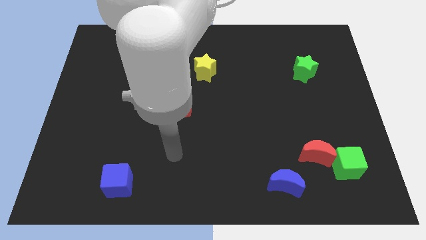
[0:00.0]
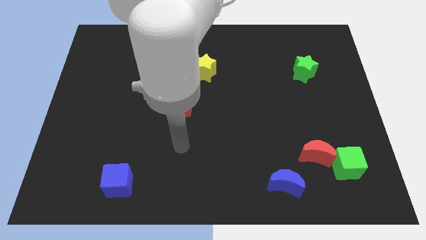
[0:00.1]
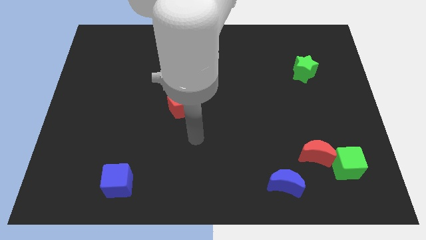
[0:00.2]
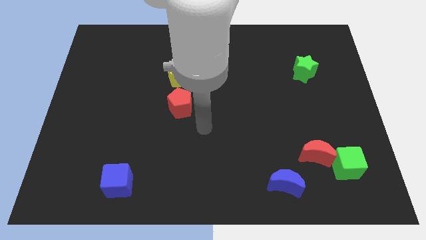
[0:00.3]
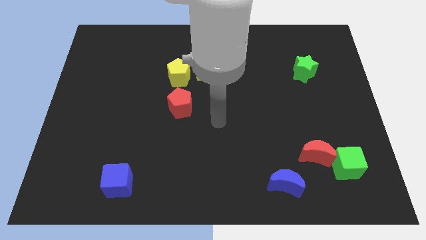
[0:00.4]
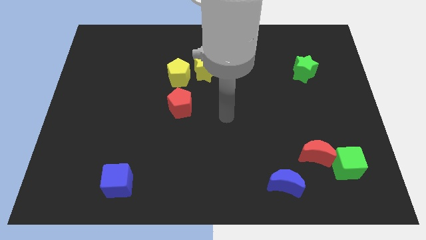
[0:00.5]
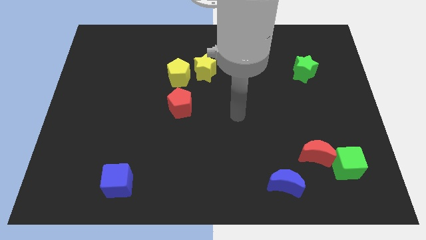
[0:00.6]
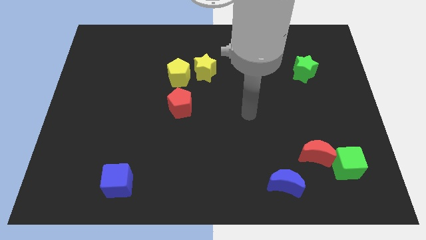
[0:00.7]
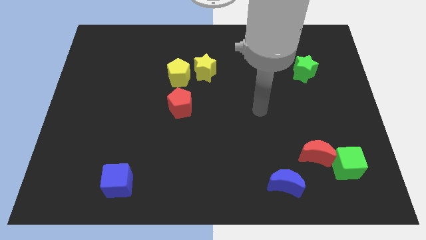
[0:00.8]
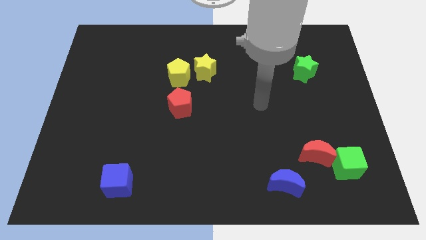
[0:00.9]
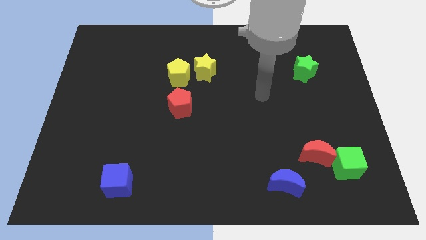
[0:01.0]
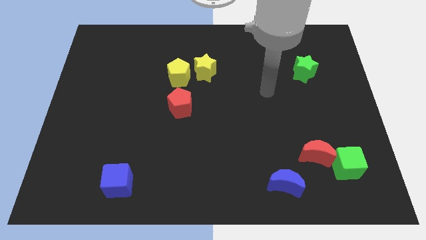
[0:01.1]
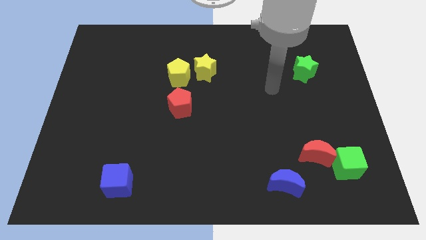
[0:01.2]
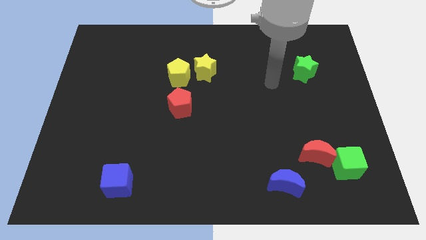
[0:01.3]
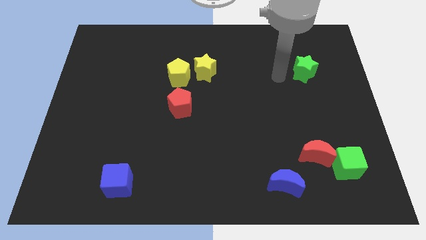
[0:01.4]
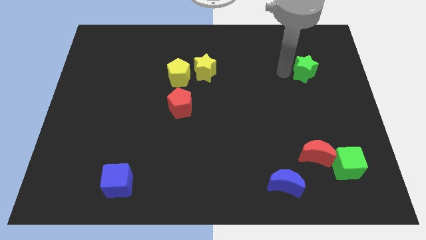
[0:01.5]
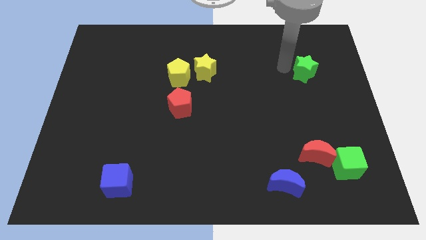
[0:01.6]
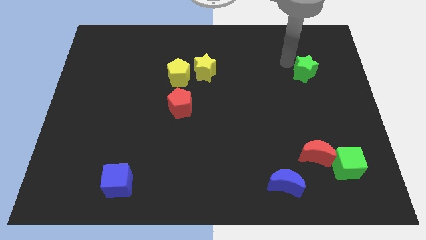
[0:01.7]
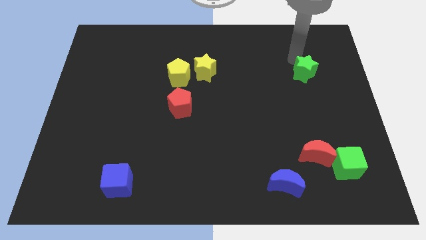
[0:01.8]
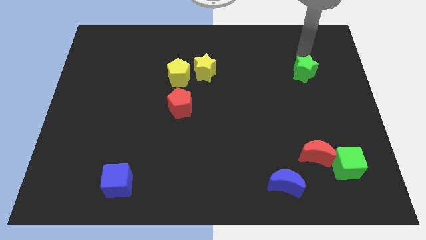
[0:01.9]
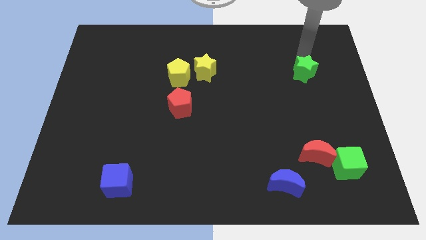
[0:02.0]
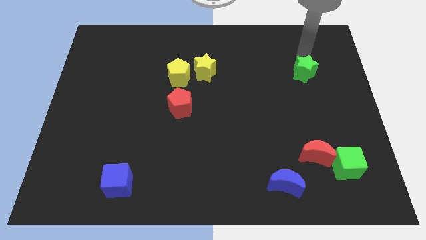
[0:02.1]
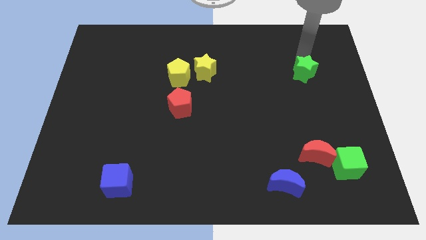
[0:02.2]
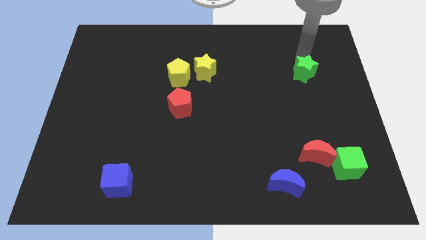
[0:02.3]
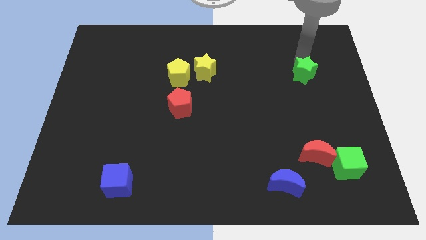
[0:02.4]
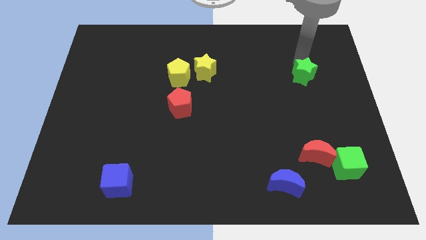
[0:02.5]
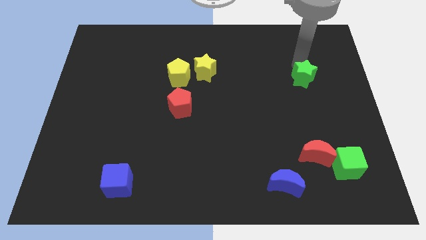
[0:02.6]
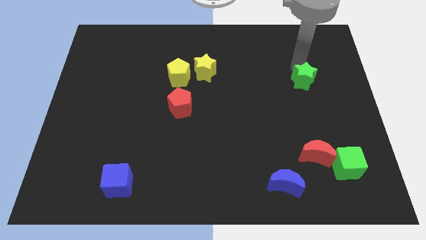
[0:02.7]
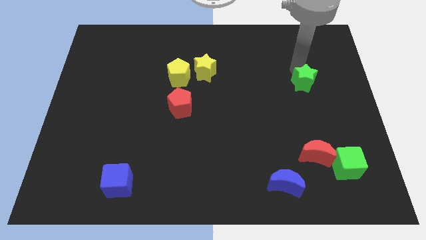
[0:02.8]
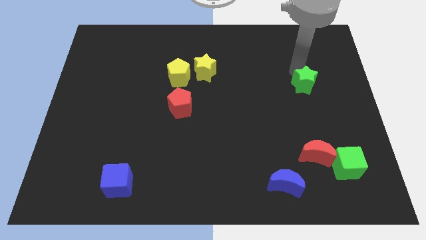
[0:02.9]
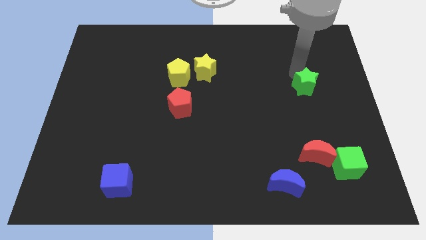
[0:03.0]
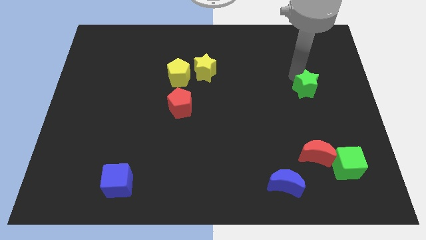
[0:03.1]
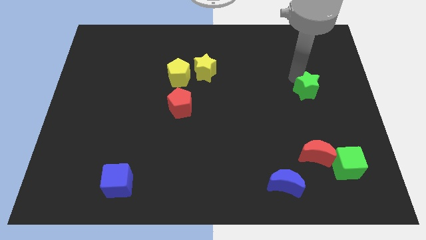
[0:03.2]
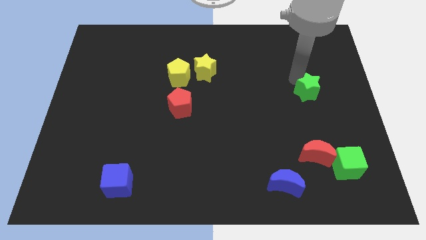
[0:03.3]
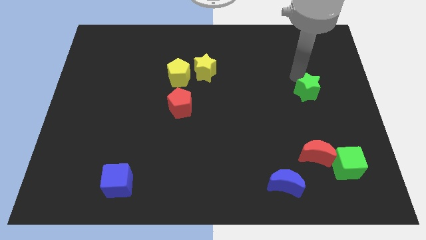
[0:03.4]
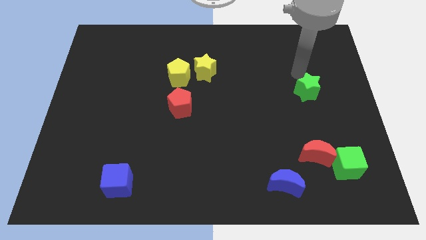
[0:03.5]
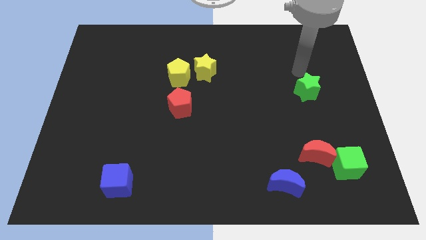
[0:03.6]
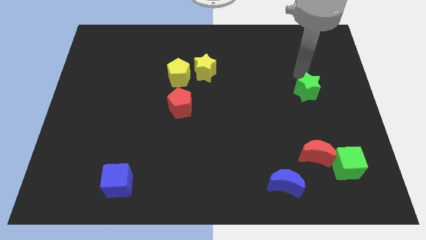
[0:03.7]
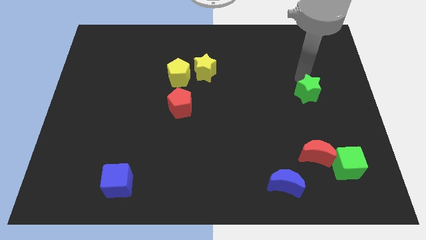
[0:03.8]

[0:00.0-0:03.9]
push the green star downwards a little

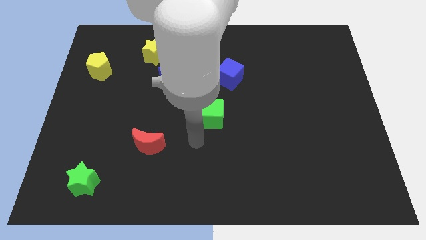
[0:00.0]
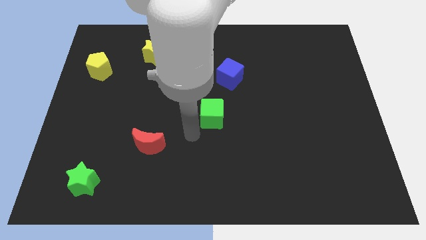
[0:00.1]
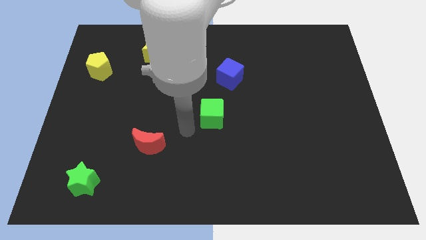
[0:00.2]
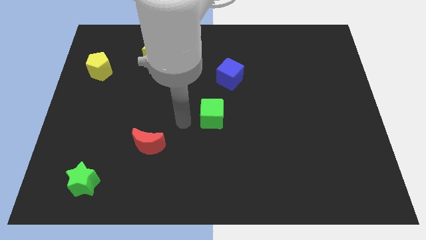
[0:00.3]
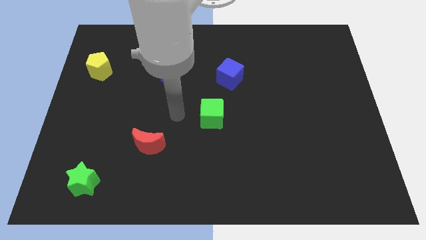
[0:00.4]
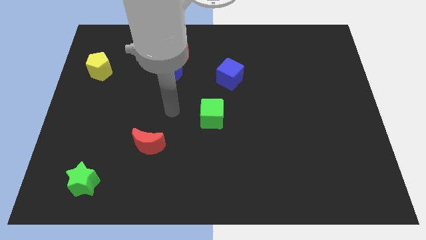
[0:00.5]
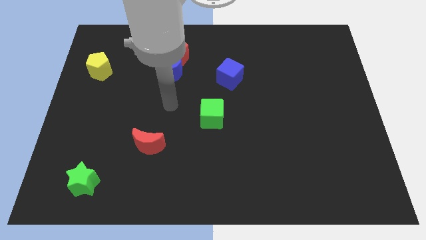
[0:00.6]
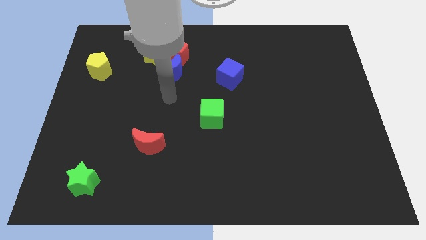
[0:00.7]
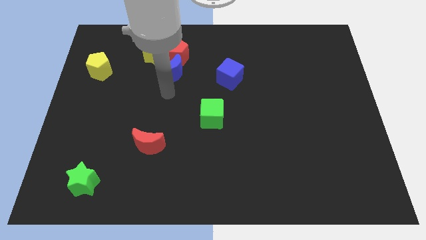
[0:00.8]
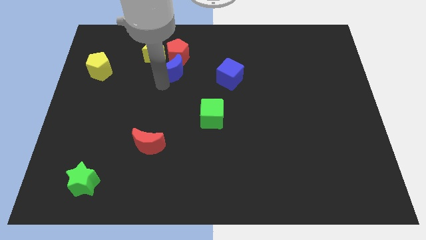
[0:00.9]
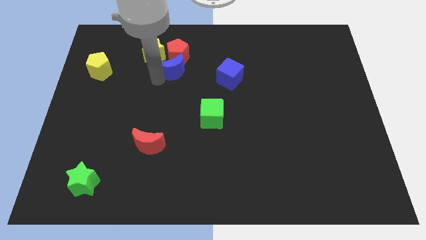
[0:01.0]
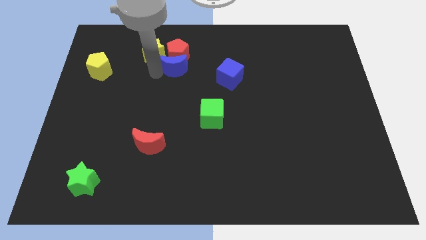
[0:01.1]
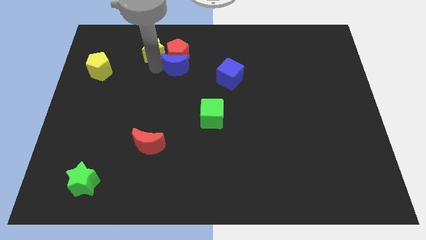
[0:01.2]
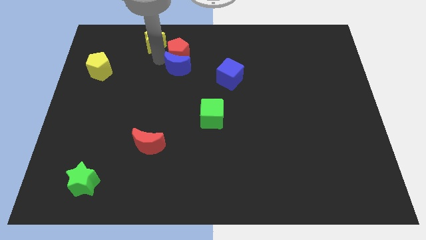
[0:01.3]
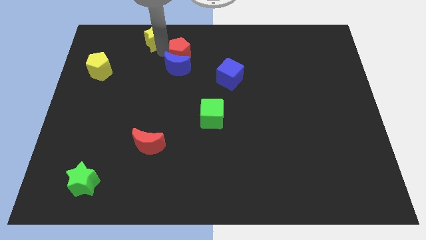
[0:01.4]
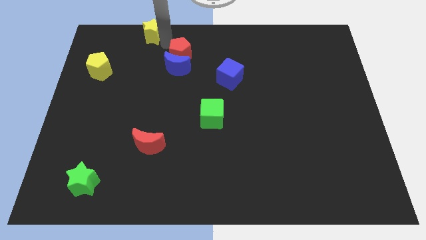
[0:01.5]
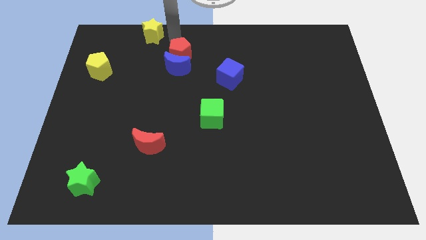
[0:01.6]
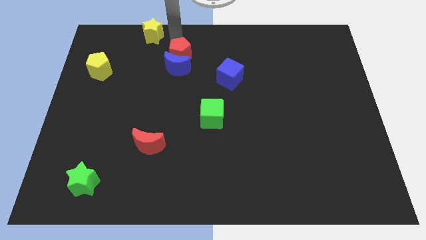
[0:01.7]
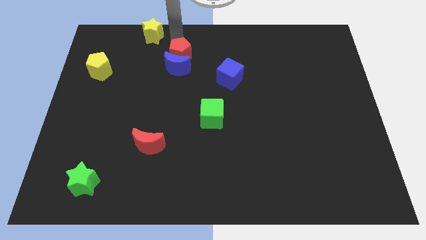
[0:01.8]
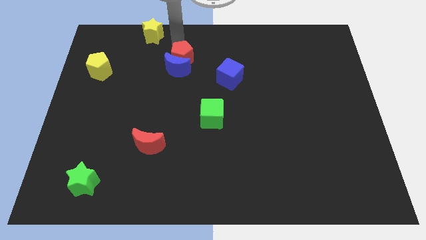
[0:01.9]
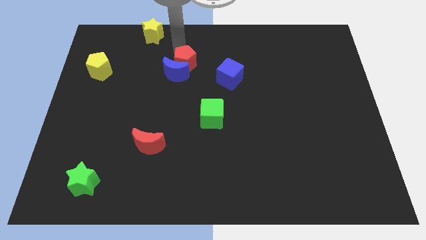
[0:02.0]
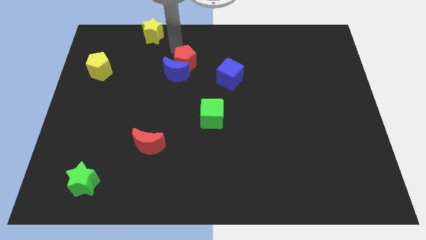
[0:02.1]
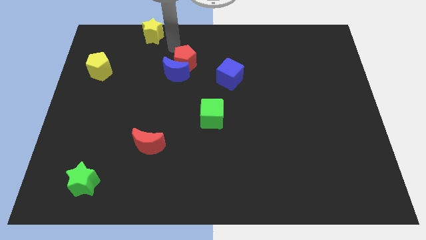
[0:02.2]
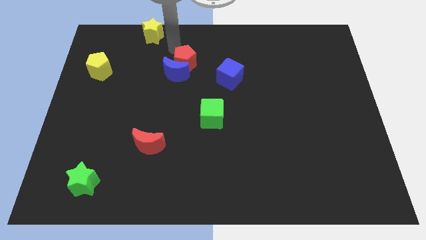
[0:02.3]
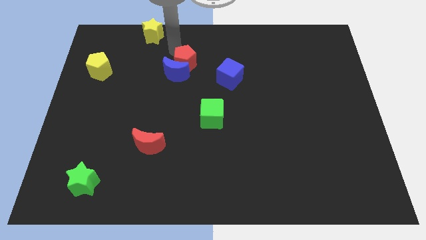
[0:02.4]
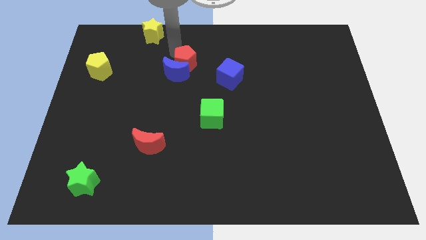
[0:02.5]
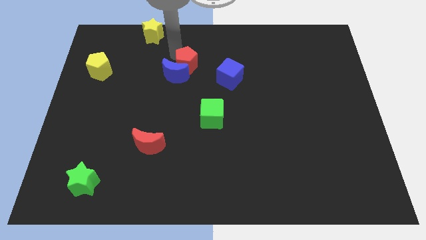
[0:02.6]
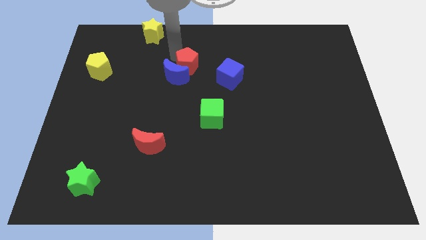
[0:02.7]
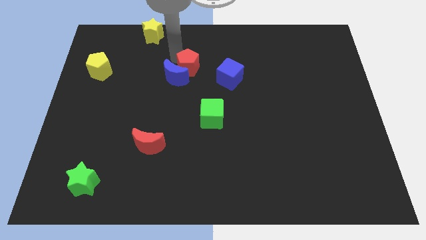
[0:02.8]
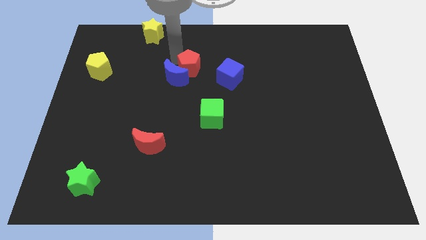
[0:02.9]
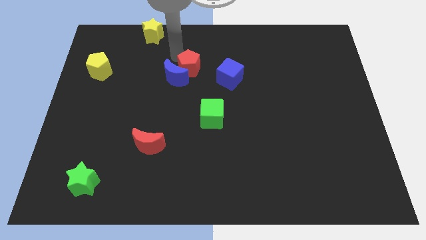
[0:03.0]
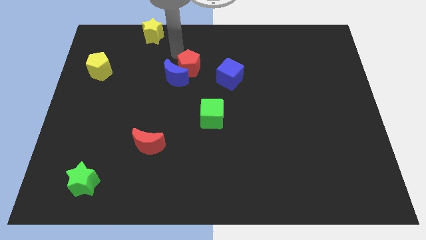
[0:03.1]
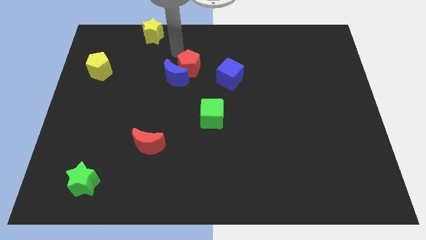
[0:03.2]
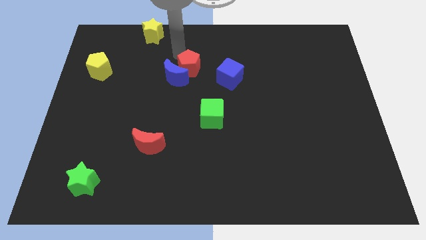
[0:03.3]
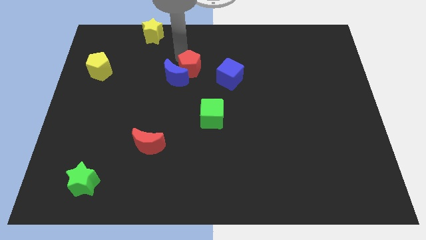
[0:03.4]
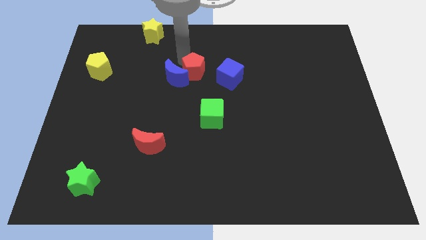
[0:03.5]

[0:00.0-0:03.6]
move the red pentagon a little diagonally down and right

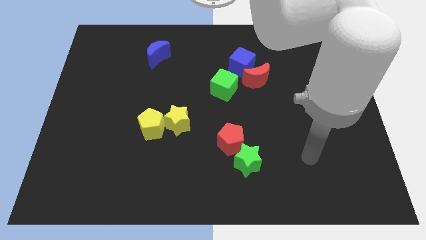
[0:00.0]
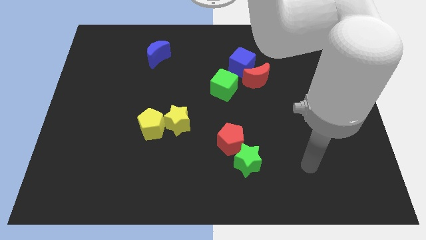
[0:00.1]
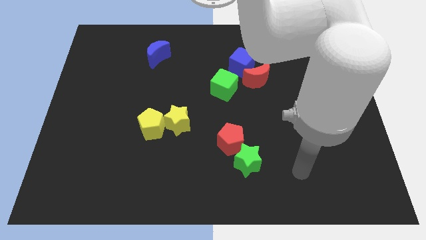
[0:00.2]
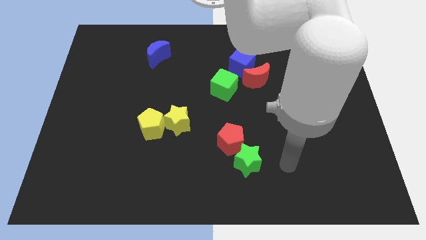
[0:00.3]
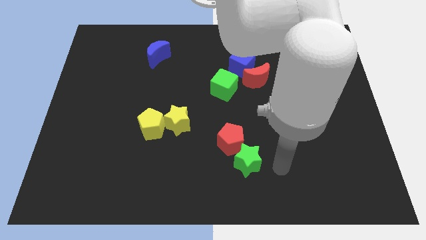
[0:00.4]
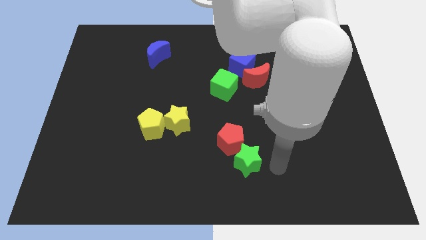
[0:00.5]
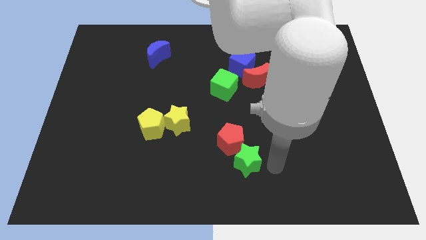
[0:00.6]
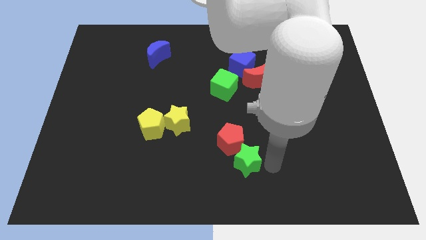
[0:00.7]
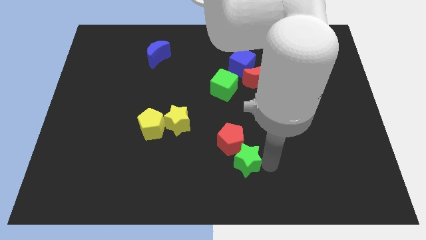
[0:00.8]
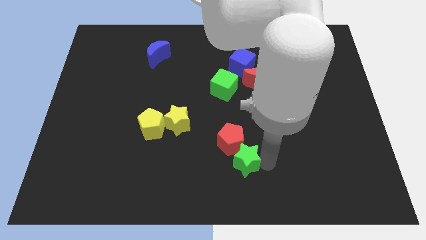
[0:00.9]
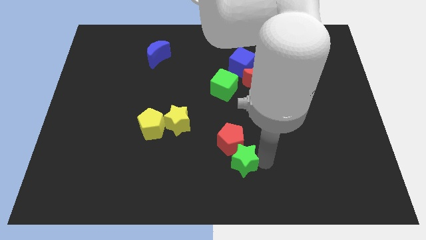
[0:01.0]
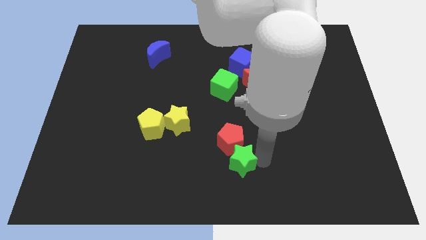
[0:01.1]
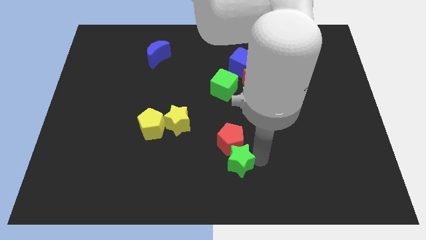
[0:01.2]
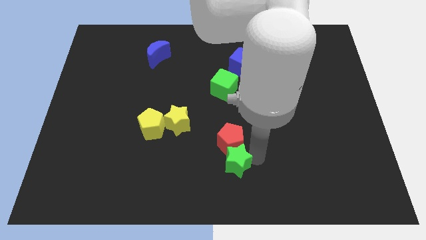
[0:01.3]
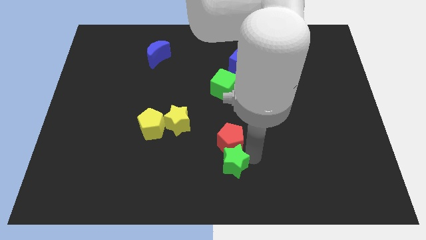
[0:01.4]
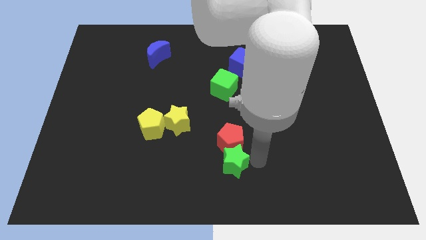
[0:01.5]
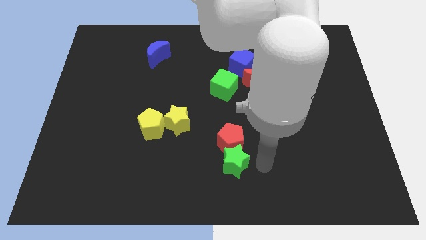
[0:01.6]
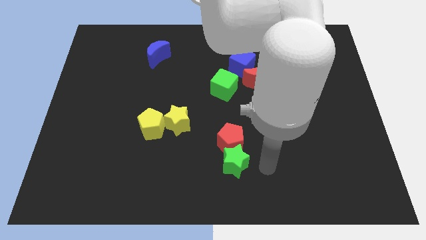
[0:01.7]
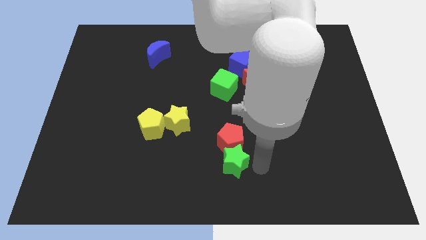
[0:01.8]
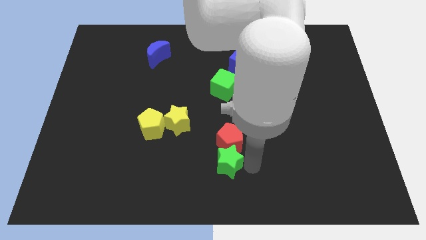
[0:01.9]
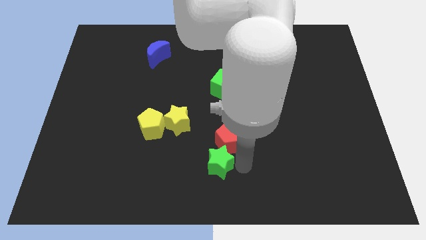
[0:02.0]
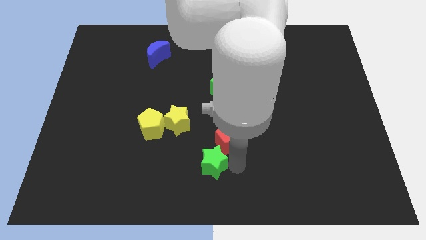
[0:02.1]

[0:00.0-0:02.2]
slide the green star a little left
